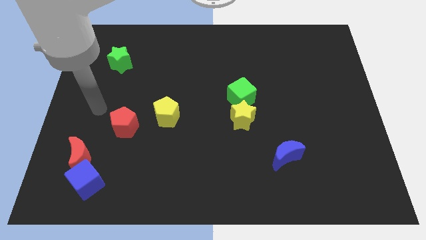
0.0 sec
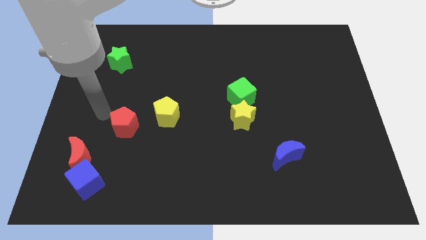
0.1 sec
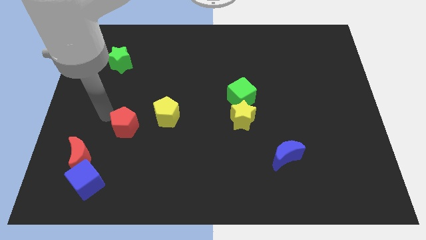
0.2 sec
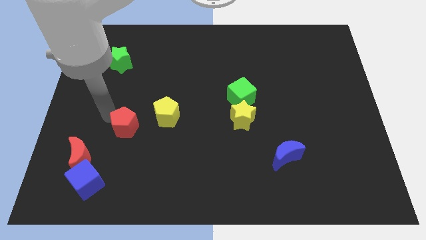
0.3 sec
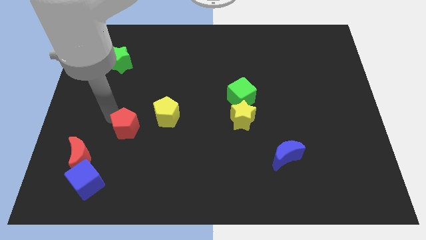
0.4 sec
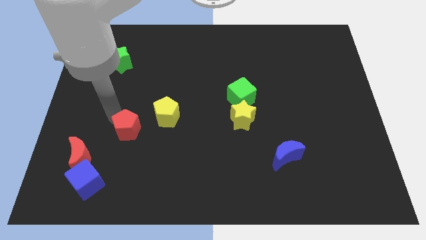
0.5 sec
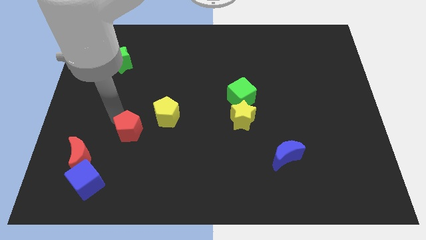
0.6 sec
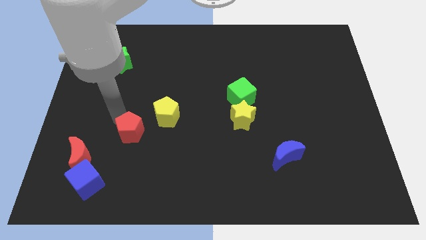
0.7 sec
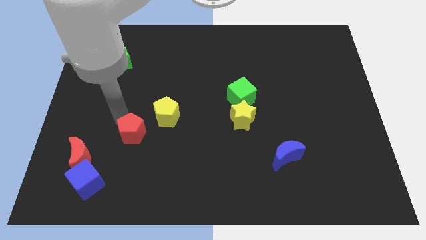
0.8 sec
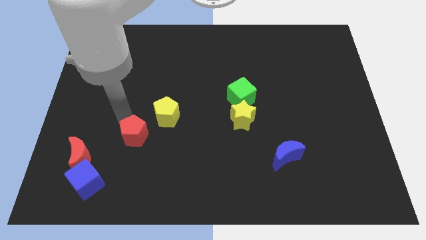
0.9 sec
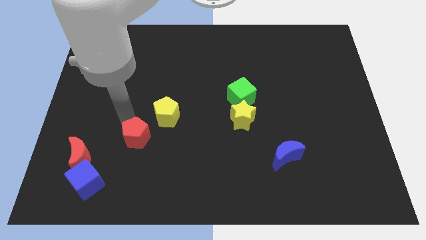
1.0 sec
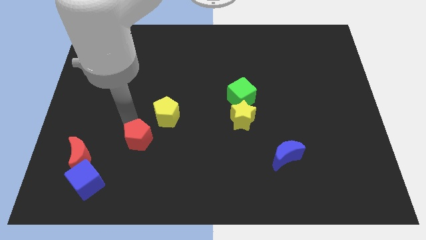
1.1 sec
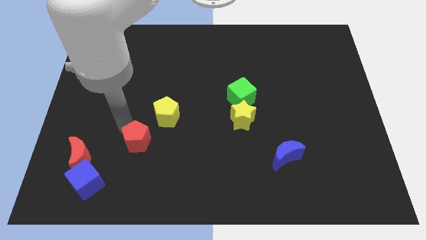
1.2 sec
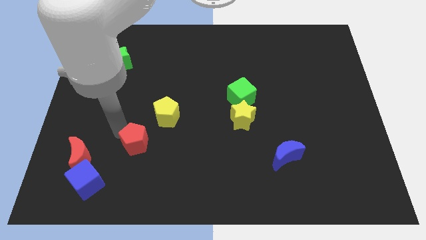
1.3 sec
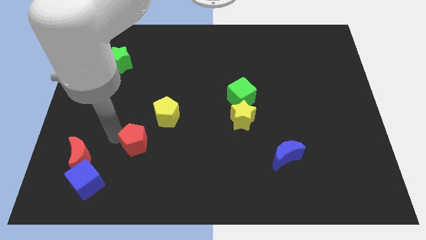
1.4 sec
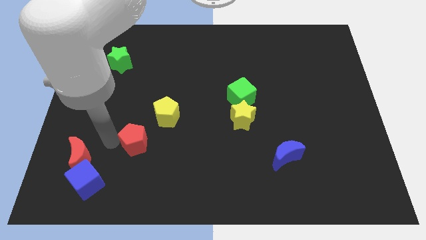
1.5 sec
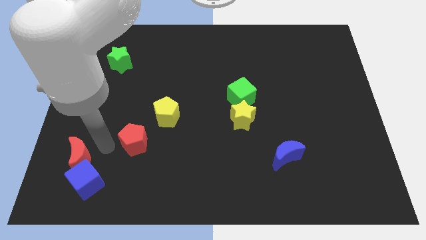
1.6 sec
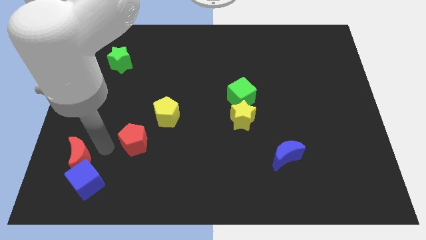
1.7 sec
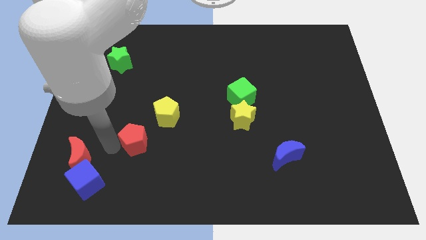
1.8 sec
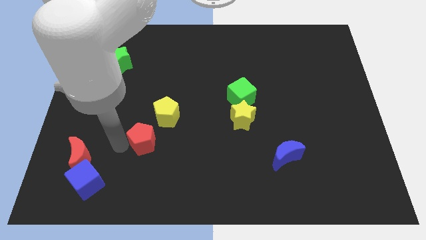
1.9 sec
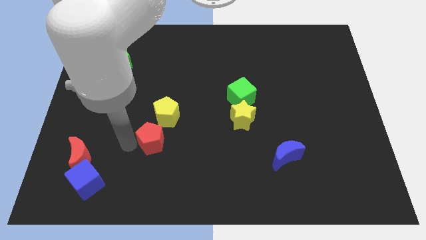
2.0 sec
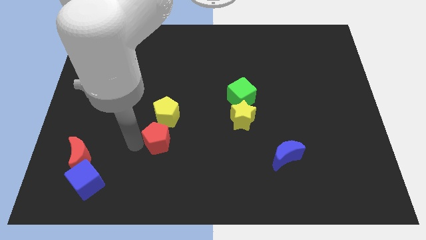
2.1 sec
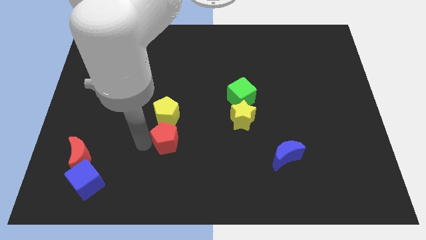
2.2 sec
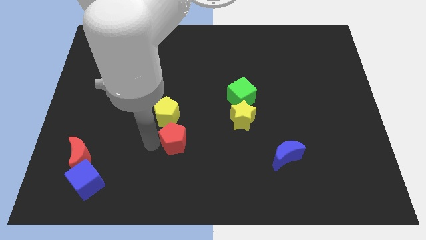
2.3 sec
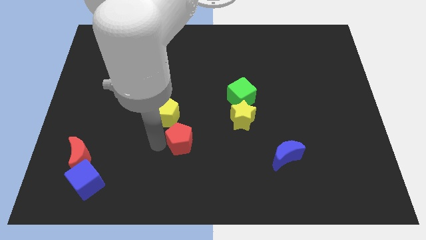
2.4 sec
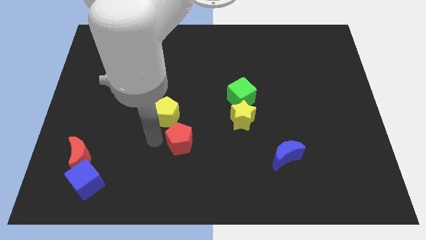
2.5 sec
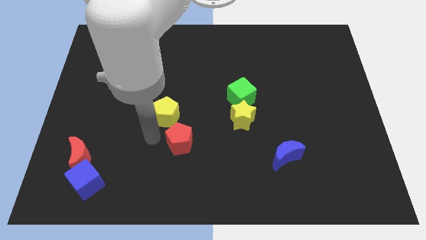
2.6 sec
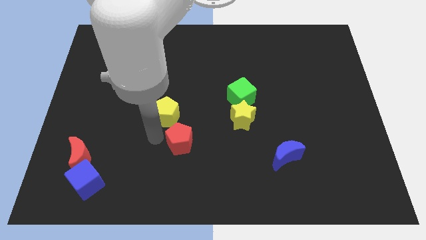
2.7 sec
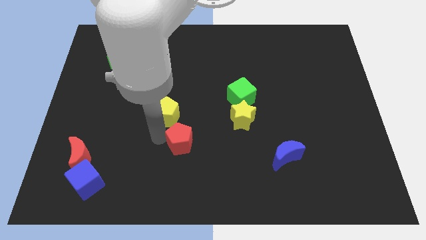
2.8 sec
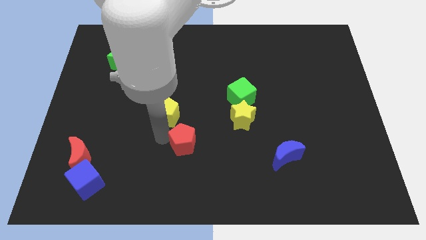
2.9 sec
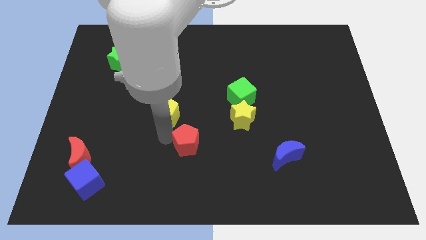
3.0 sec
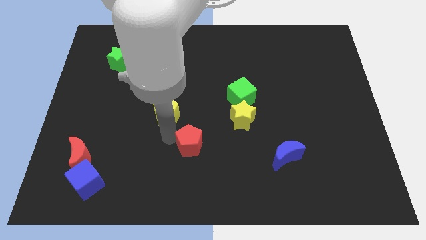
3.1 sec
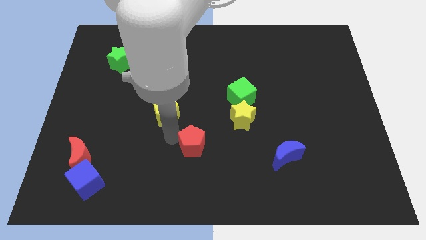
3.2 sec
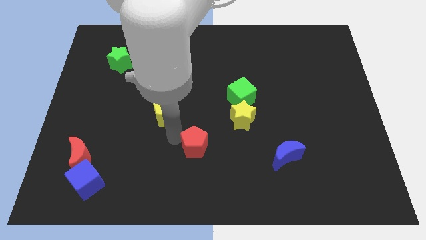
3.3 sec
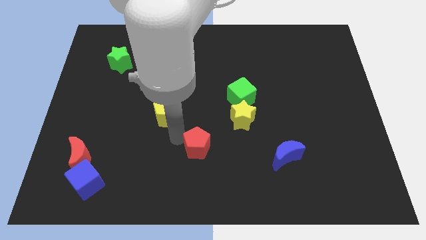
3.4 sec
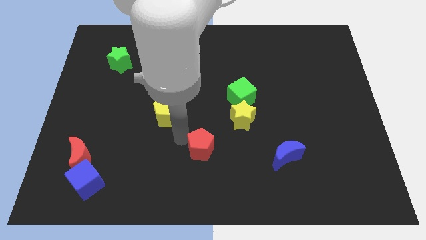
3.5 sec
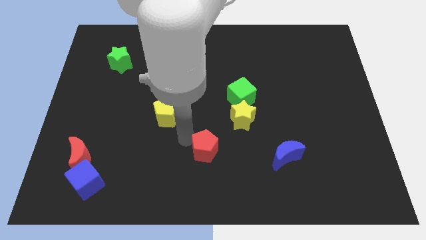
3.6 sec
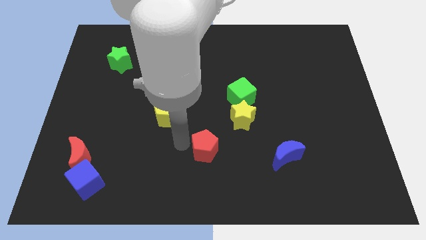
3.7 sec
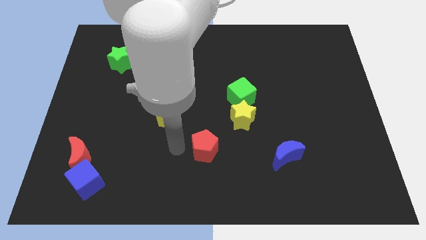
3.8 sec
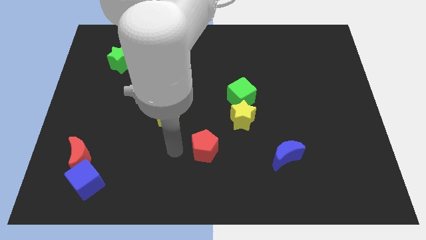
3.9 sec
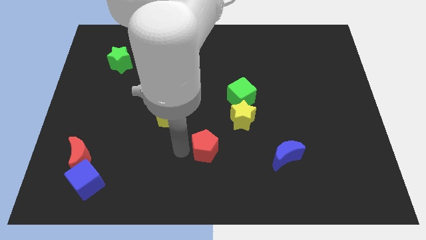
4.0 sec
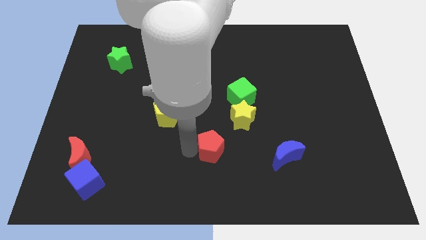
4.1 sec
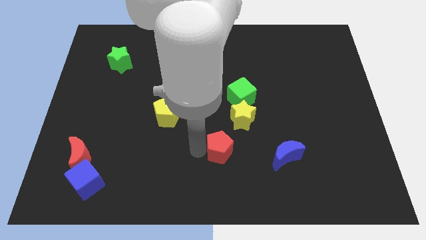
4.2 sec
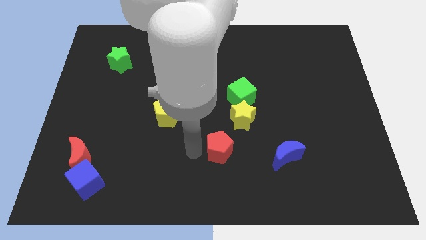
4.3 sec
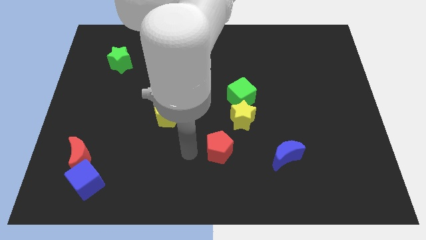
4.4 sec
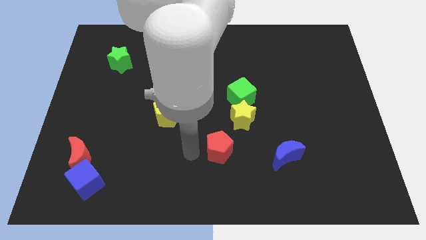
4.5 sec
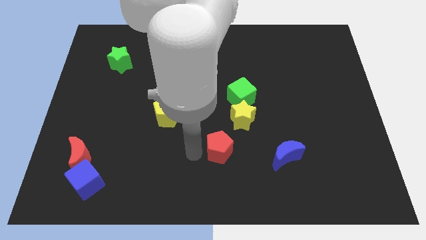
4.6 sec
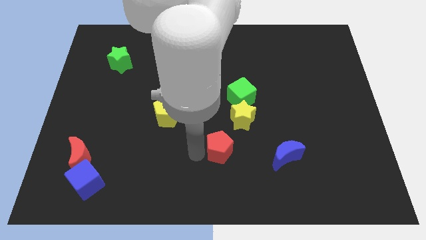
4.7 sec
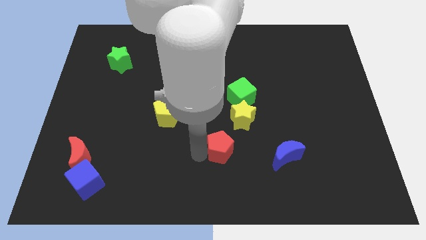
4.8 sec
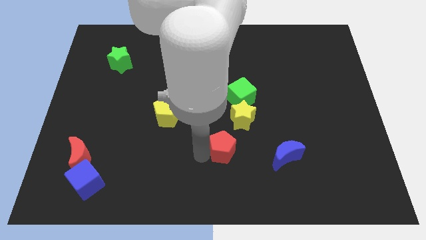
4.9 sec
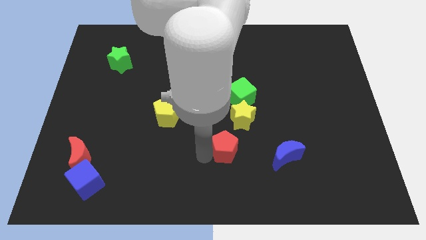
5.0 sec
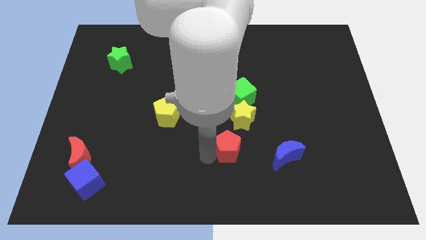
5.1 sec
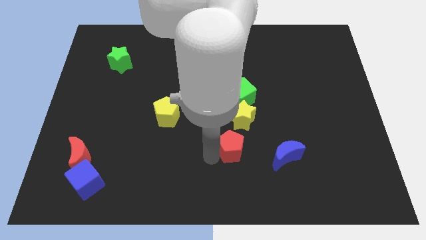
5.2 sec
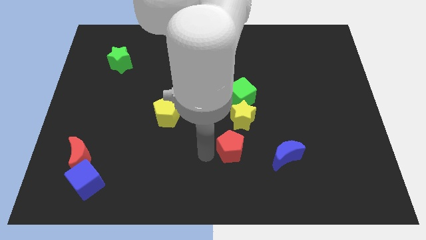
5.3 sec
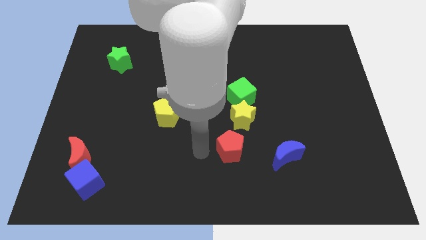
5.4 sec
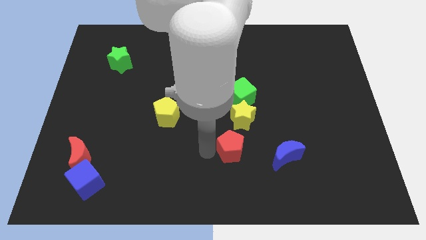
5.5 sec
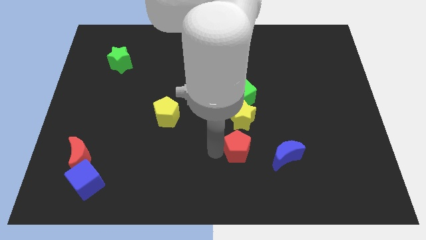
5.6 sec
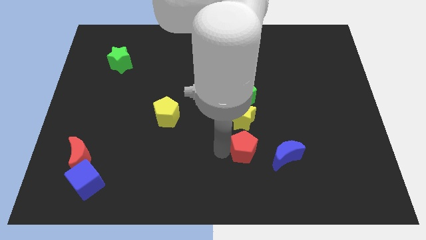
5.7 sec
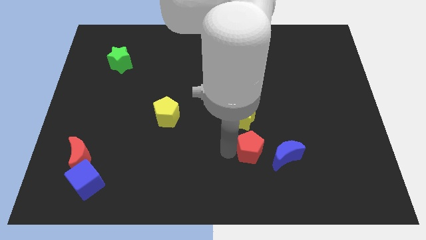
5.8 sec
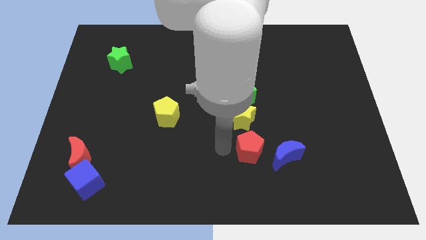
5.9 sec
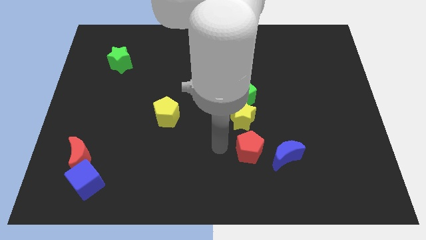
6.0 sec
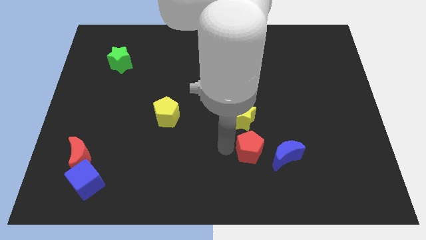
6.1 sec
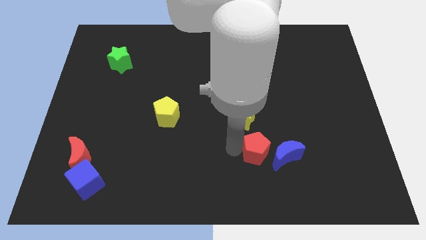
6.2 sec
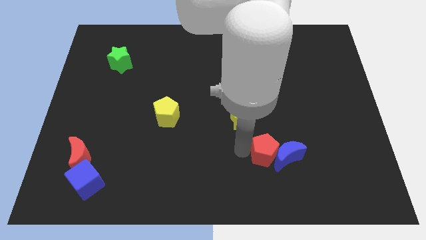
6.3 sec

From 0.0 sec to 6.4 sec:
slide the red pentagon close to the blue moon

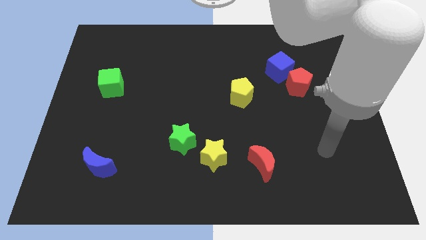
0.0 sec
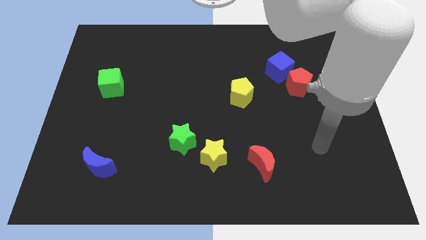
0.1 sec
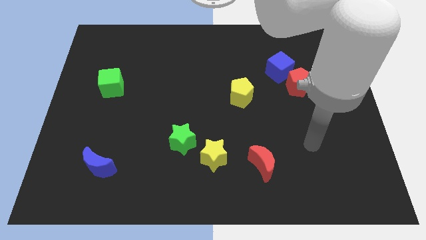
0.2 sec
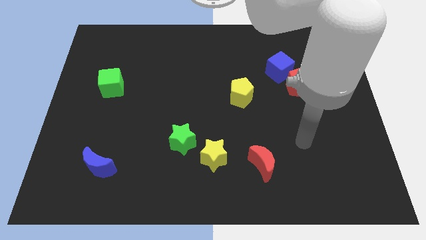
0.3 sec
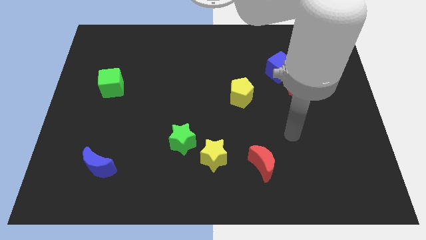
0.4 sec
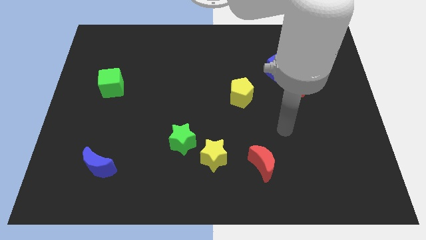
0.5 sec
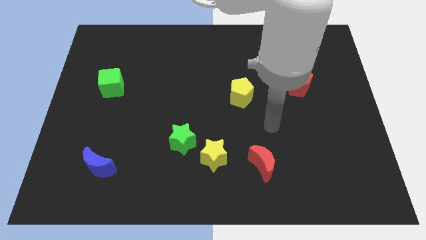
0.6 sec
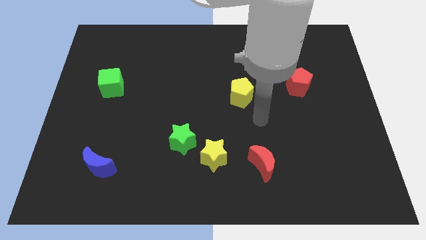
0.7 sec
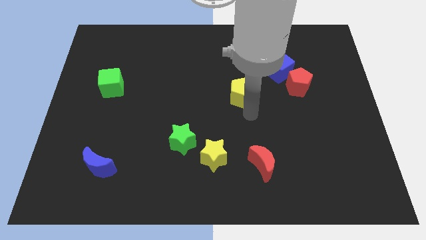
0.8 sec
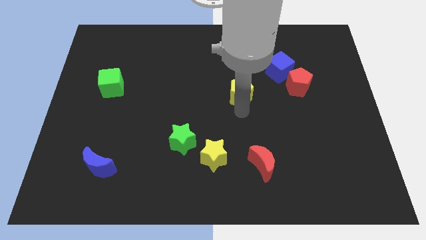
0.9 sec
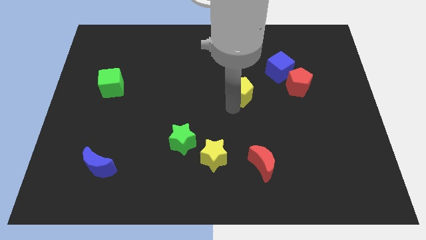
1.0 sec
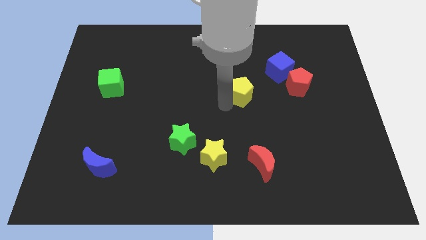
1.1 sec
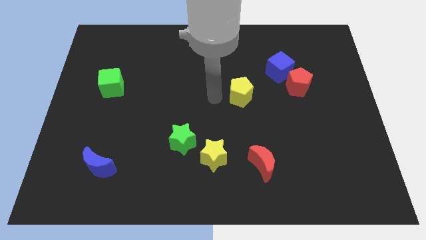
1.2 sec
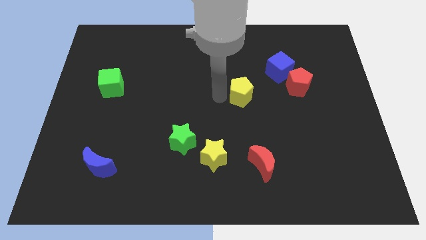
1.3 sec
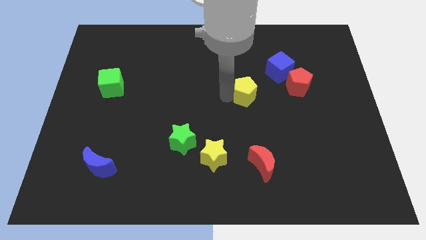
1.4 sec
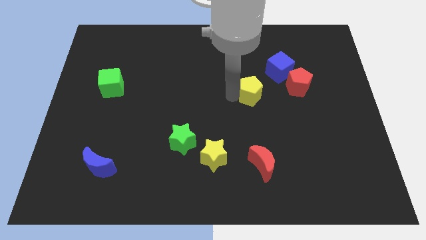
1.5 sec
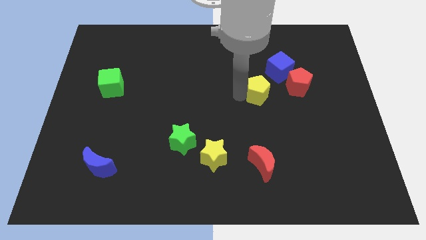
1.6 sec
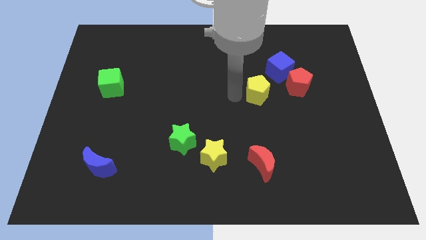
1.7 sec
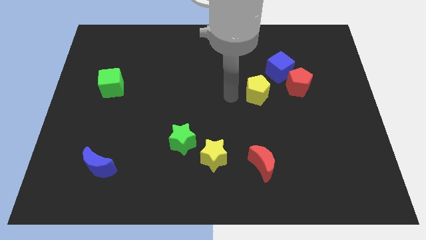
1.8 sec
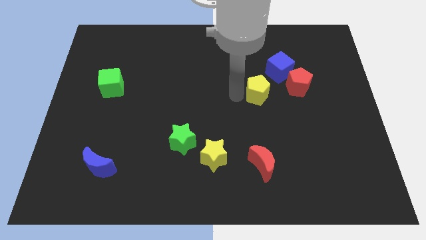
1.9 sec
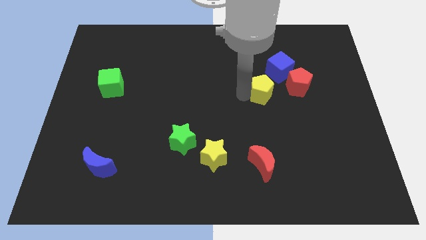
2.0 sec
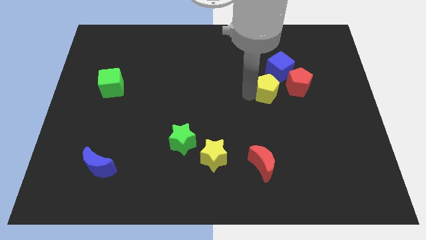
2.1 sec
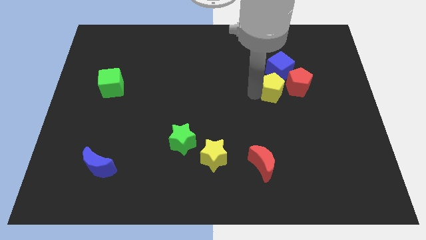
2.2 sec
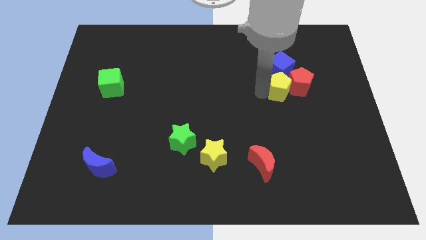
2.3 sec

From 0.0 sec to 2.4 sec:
push the yellow pentagon next to the red pentagon
